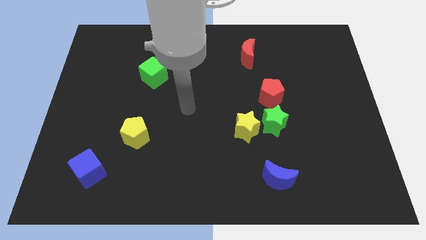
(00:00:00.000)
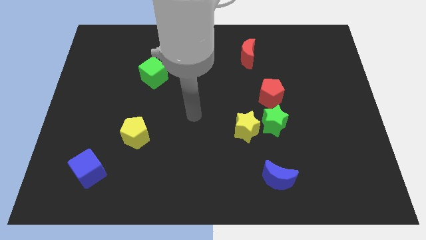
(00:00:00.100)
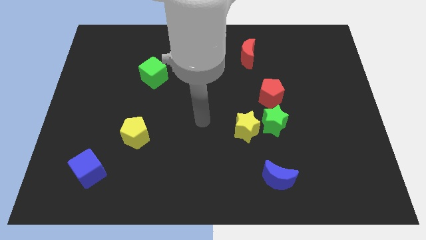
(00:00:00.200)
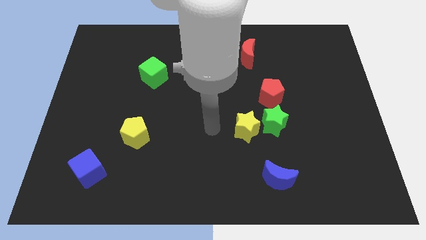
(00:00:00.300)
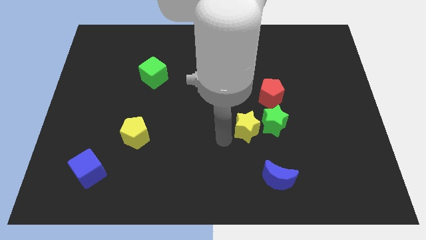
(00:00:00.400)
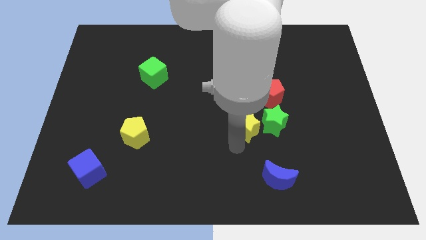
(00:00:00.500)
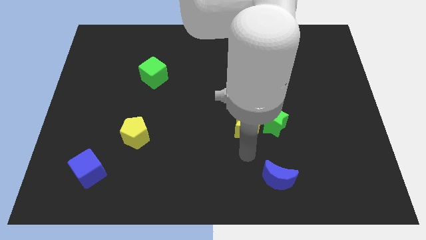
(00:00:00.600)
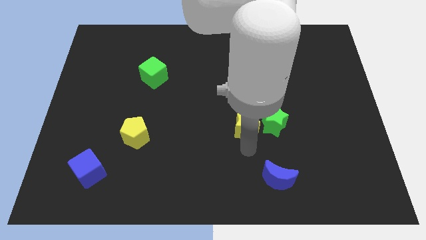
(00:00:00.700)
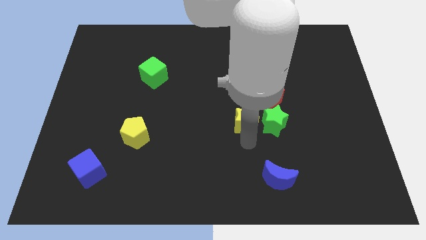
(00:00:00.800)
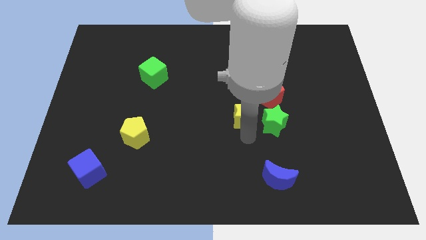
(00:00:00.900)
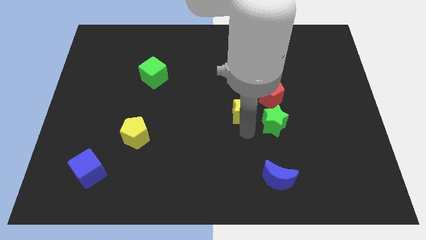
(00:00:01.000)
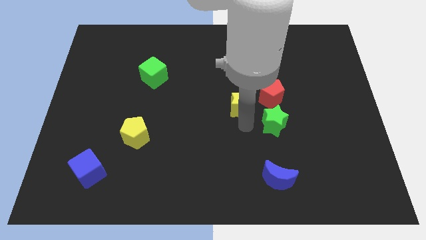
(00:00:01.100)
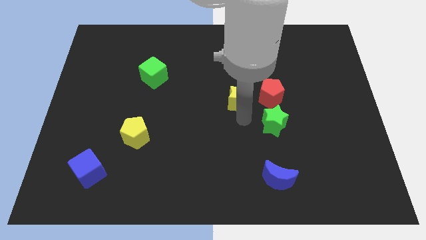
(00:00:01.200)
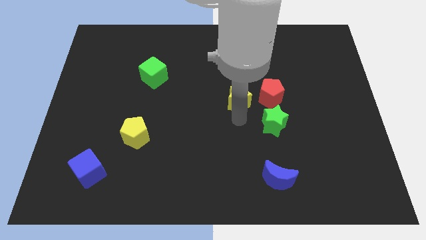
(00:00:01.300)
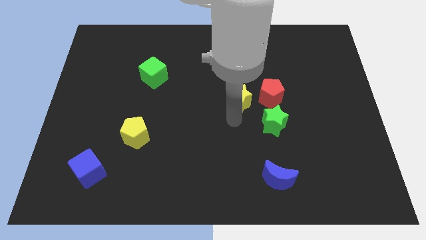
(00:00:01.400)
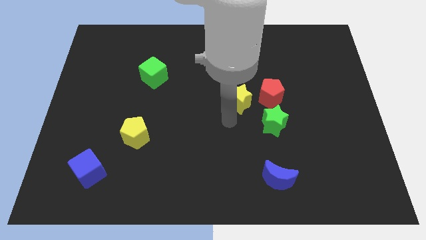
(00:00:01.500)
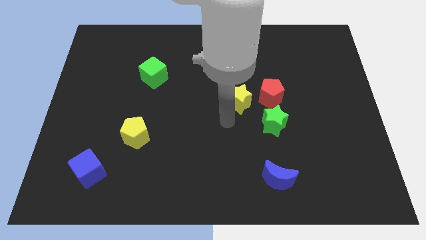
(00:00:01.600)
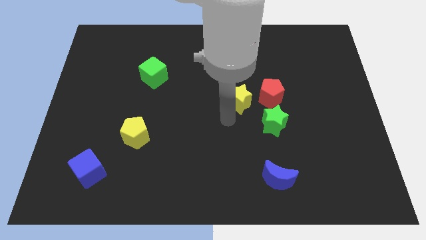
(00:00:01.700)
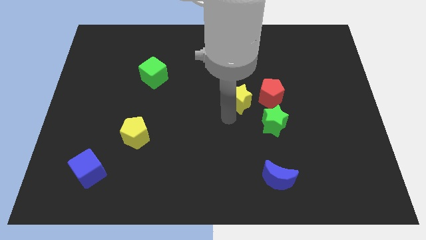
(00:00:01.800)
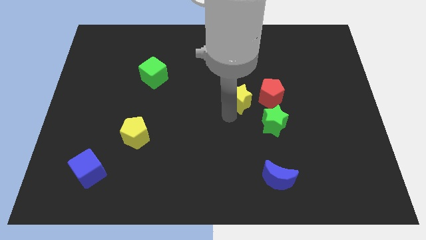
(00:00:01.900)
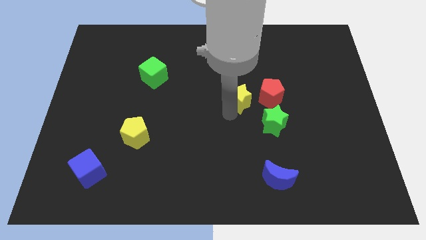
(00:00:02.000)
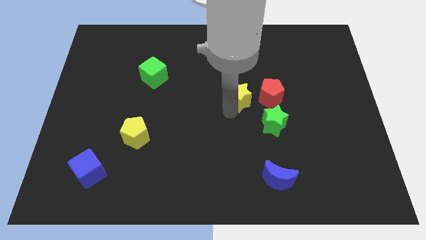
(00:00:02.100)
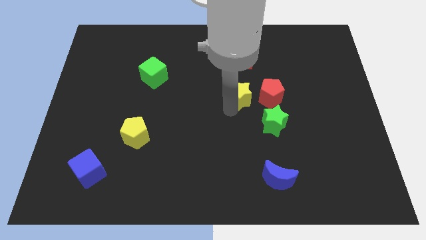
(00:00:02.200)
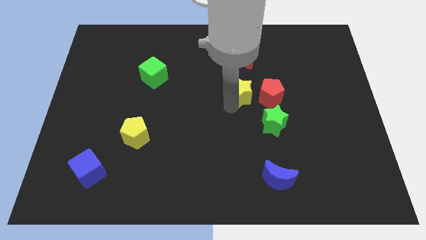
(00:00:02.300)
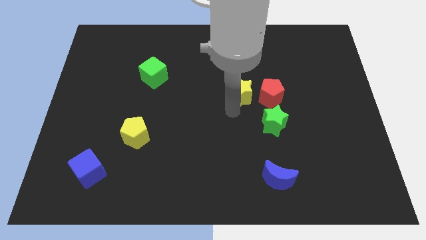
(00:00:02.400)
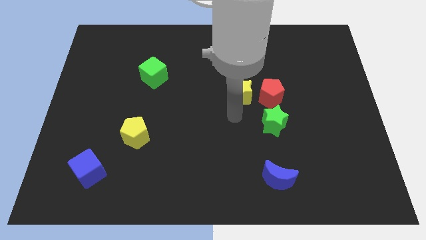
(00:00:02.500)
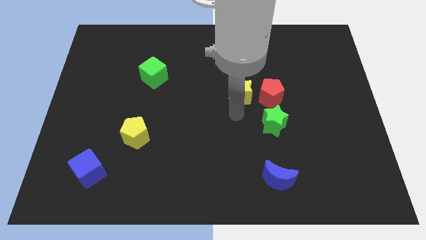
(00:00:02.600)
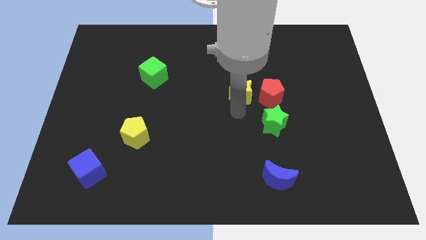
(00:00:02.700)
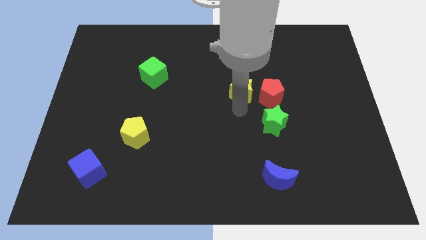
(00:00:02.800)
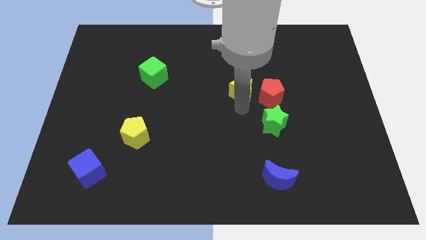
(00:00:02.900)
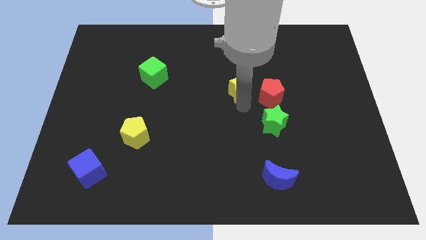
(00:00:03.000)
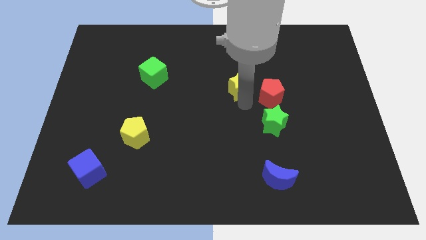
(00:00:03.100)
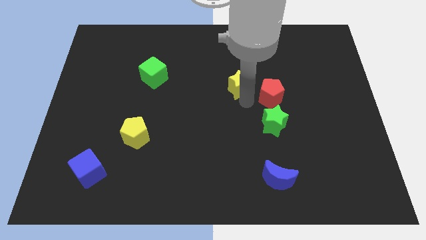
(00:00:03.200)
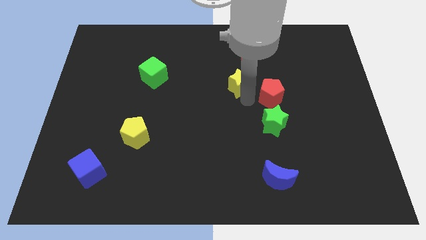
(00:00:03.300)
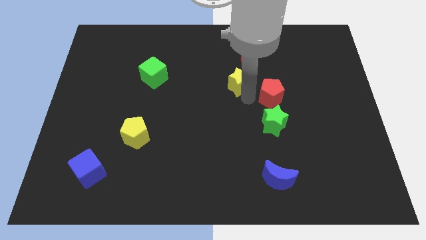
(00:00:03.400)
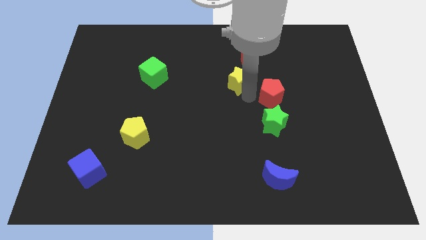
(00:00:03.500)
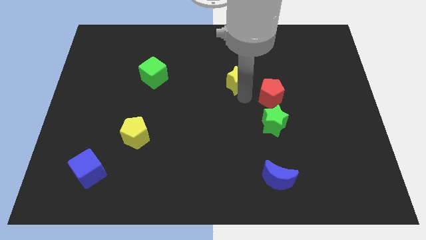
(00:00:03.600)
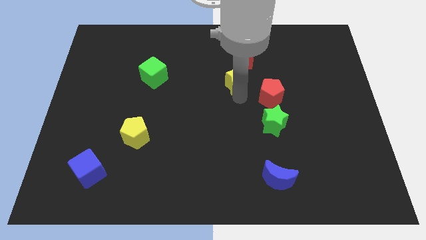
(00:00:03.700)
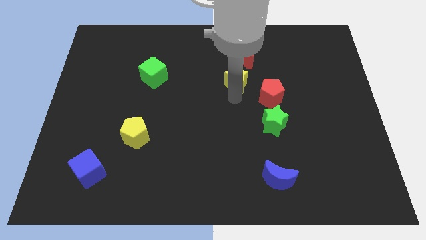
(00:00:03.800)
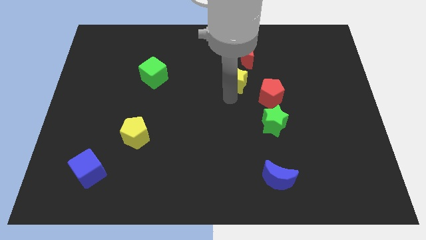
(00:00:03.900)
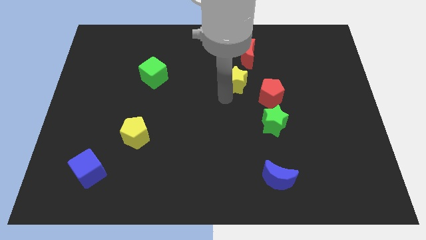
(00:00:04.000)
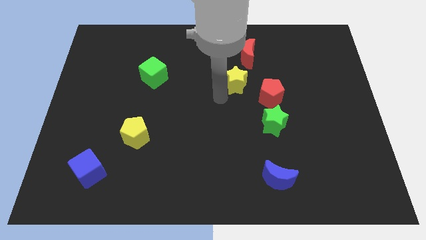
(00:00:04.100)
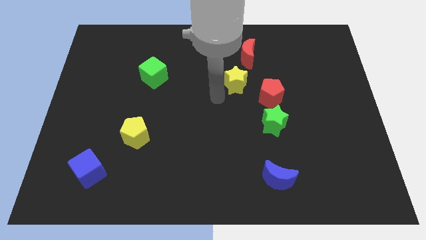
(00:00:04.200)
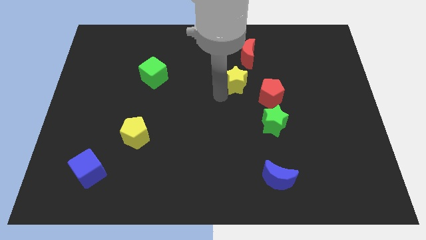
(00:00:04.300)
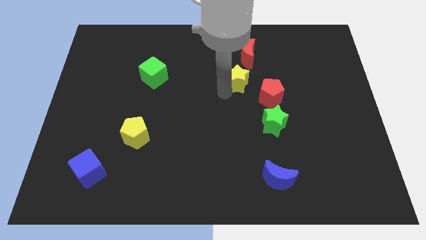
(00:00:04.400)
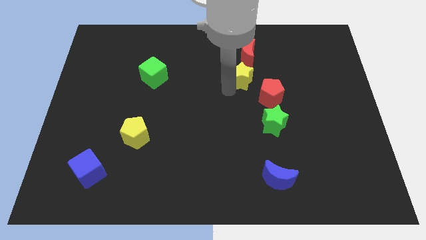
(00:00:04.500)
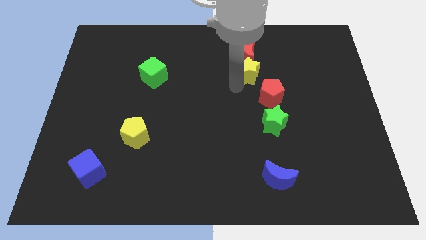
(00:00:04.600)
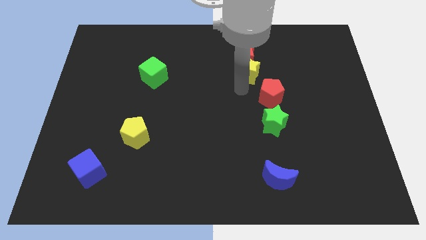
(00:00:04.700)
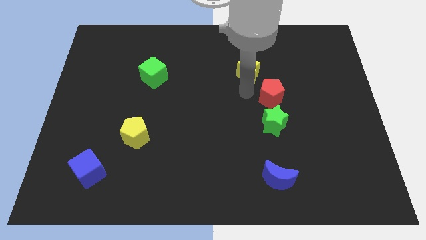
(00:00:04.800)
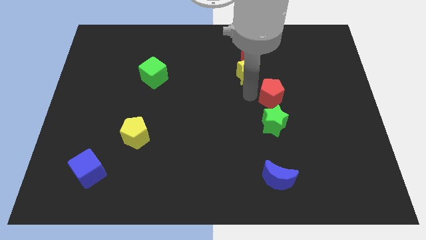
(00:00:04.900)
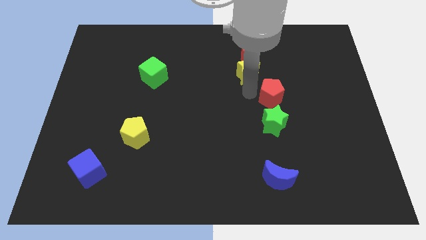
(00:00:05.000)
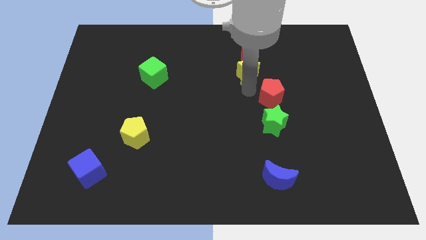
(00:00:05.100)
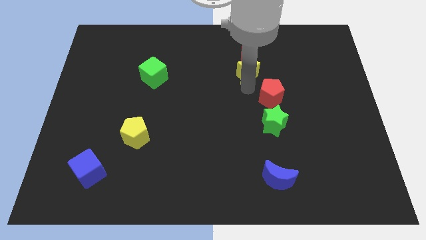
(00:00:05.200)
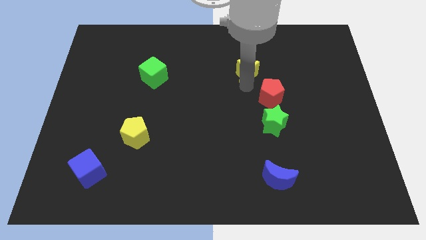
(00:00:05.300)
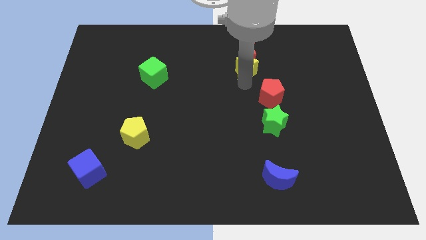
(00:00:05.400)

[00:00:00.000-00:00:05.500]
put the yellow star next to the red moon

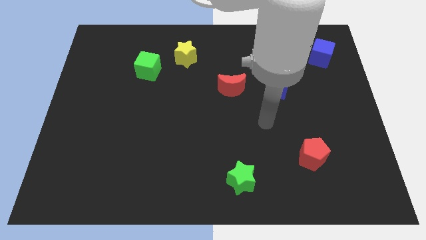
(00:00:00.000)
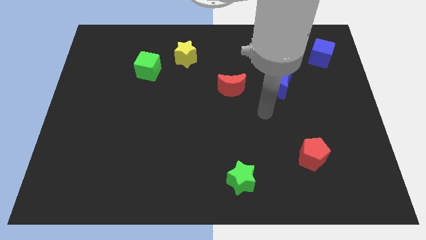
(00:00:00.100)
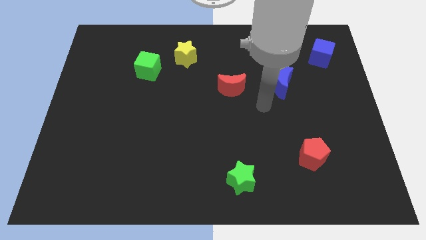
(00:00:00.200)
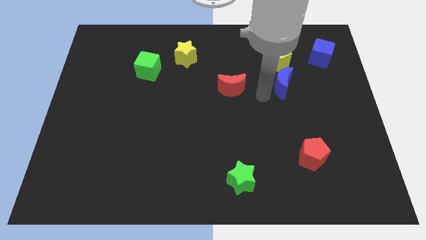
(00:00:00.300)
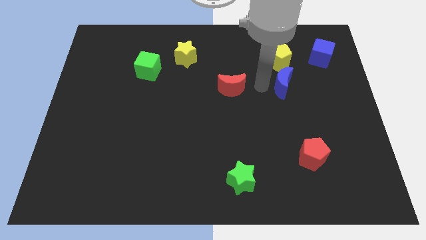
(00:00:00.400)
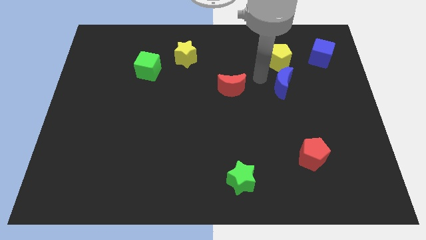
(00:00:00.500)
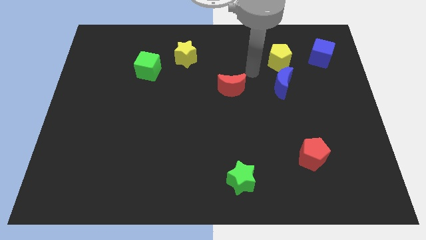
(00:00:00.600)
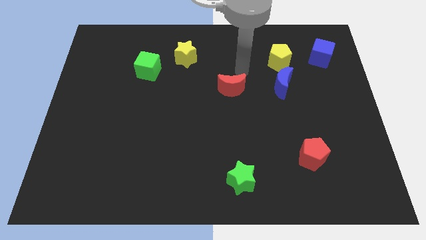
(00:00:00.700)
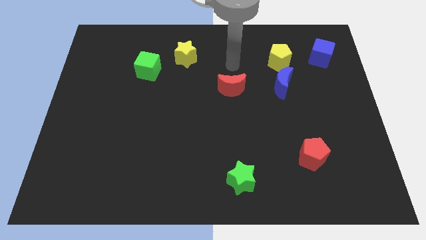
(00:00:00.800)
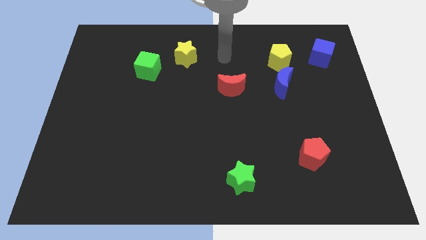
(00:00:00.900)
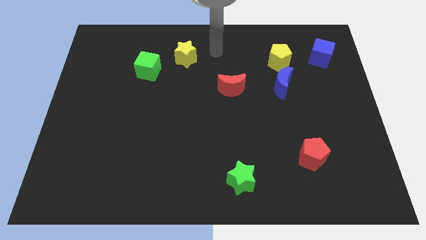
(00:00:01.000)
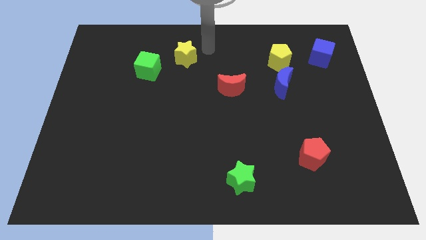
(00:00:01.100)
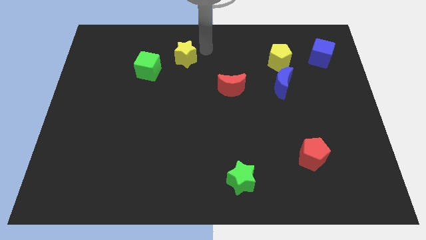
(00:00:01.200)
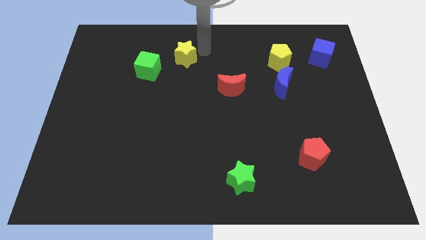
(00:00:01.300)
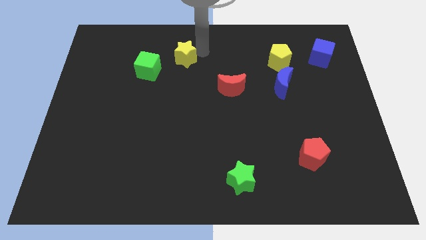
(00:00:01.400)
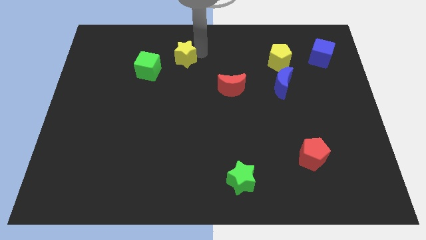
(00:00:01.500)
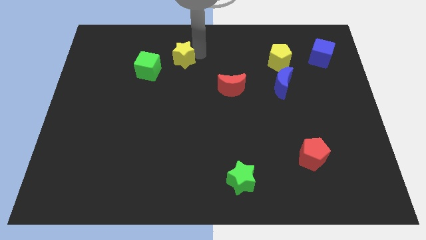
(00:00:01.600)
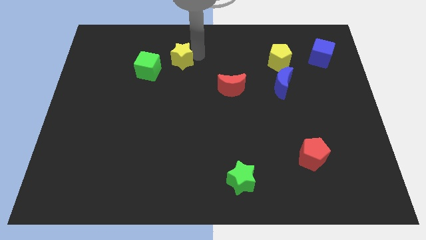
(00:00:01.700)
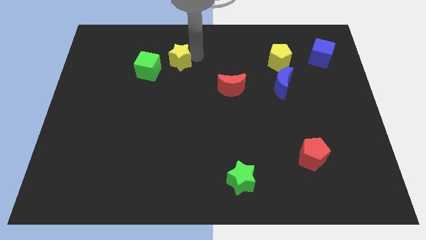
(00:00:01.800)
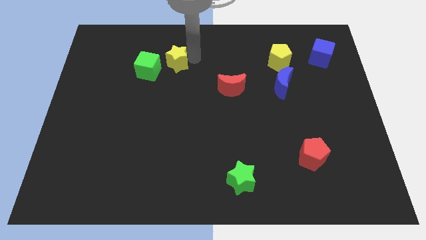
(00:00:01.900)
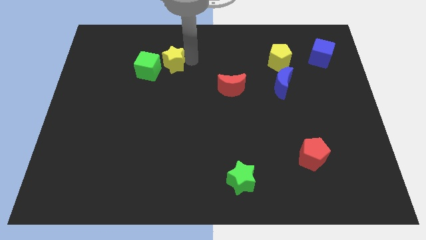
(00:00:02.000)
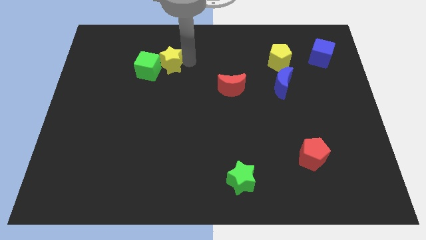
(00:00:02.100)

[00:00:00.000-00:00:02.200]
push the yellow star towards the green cube
